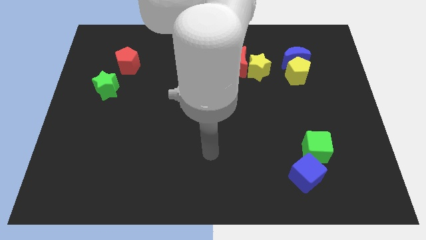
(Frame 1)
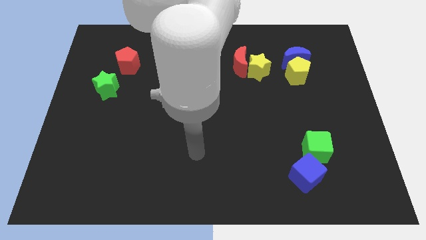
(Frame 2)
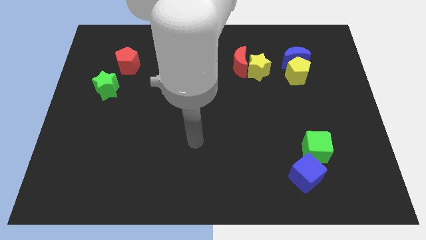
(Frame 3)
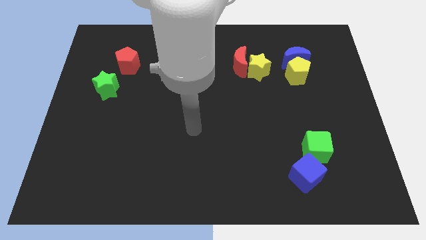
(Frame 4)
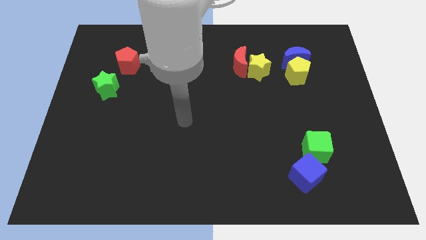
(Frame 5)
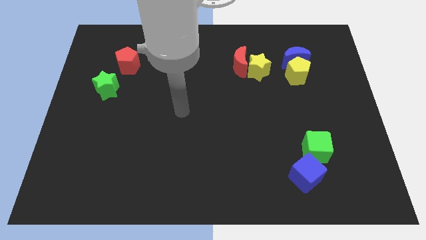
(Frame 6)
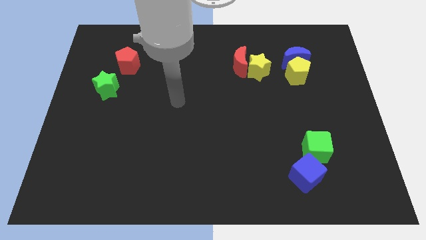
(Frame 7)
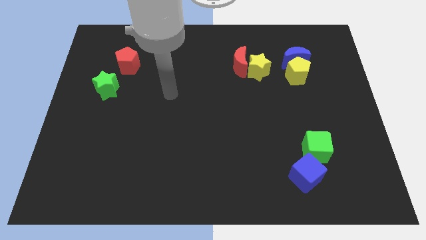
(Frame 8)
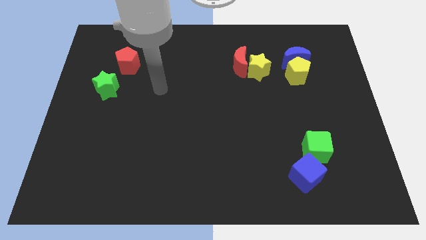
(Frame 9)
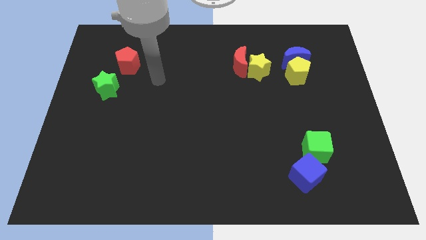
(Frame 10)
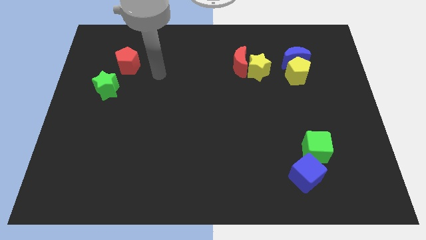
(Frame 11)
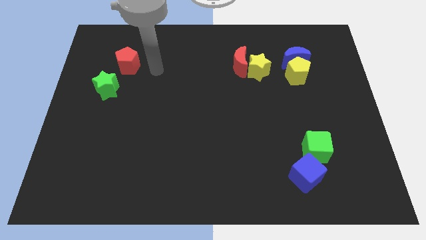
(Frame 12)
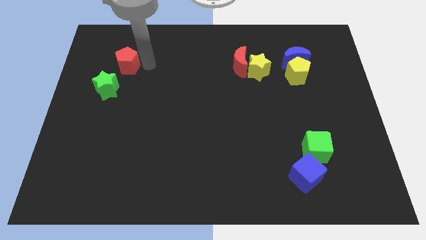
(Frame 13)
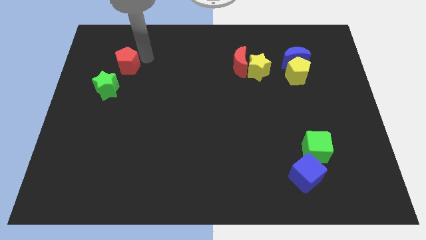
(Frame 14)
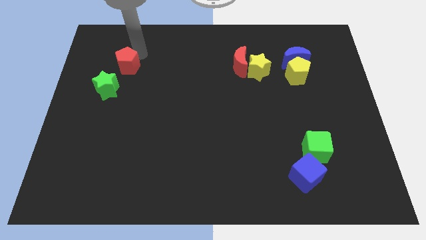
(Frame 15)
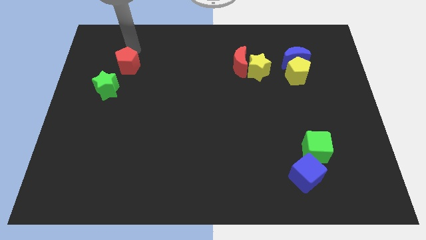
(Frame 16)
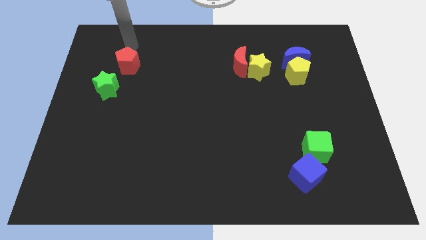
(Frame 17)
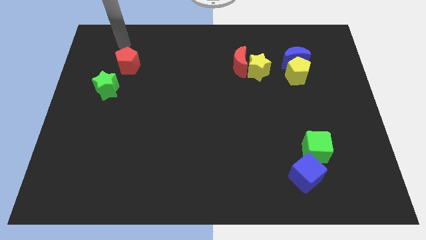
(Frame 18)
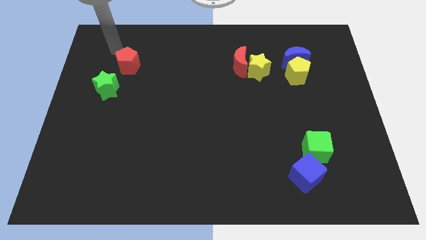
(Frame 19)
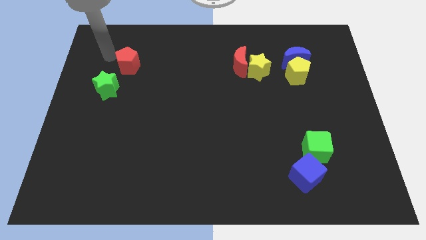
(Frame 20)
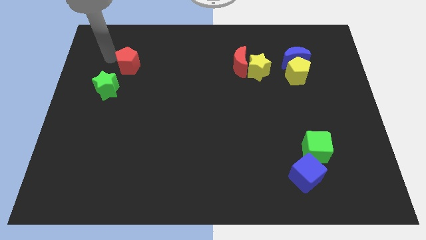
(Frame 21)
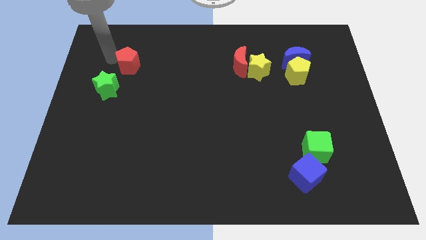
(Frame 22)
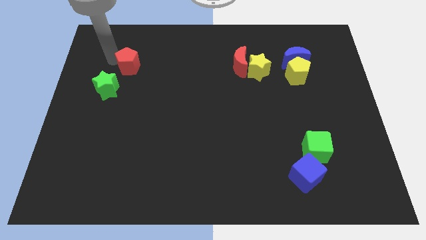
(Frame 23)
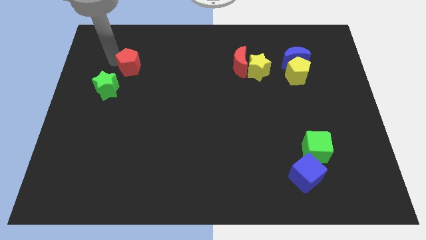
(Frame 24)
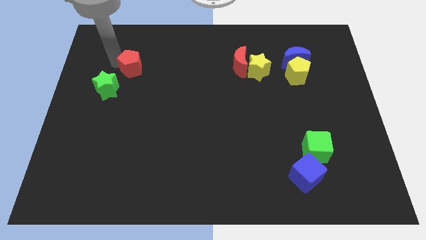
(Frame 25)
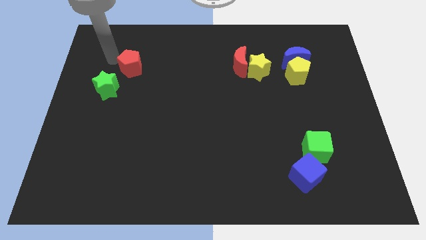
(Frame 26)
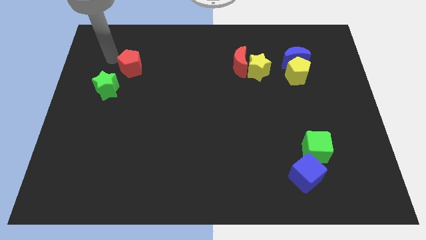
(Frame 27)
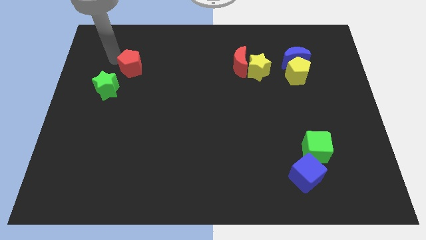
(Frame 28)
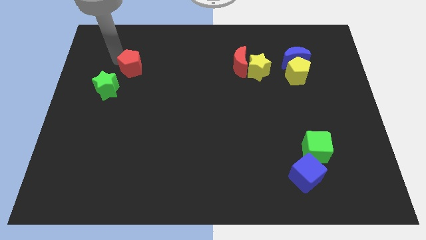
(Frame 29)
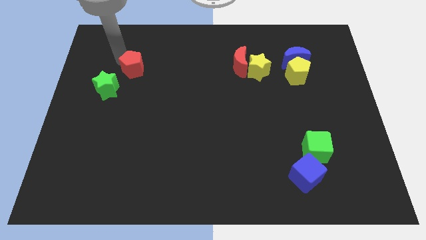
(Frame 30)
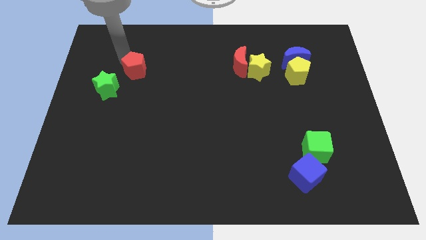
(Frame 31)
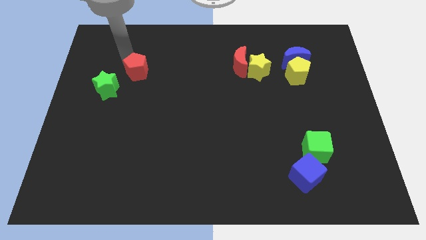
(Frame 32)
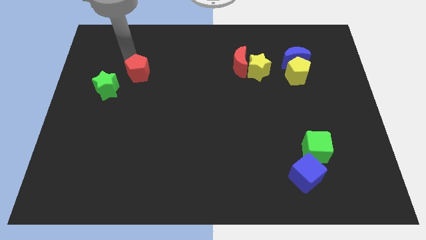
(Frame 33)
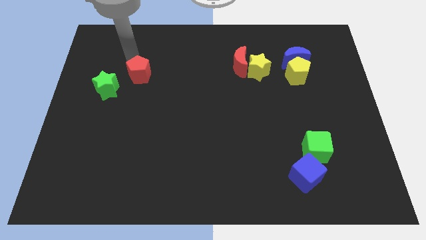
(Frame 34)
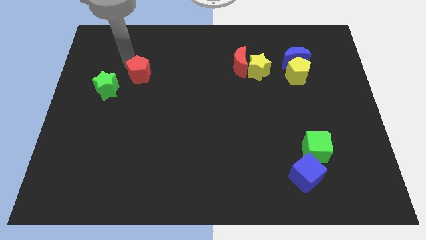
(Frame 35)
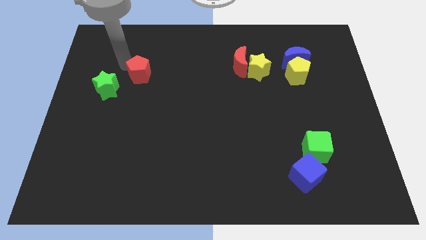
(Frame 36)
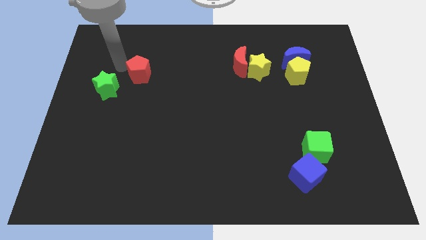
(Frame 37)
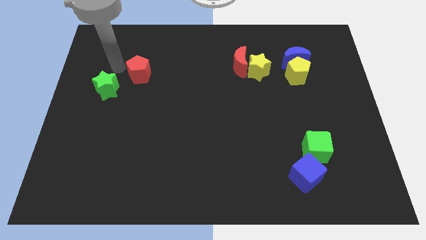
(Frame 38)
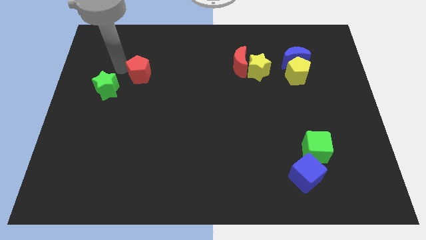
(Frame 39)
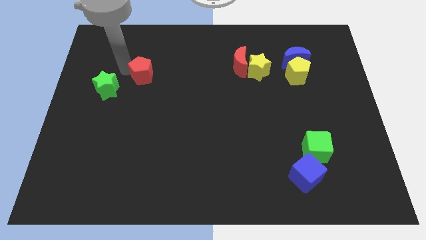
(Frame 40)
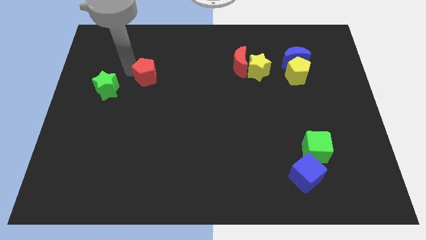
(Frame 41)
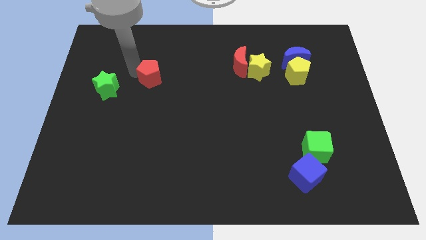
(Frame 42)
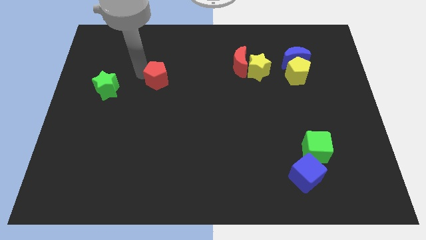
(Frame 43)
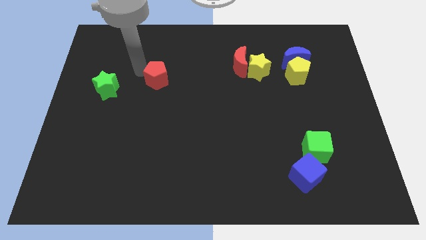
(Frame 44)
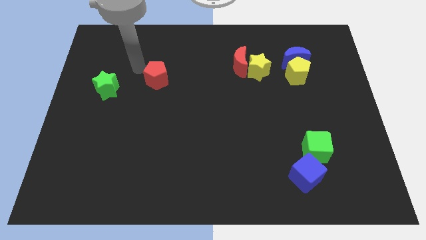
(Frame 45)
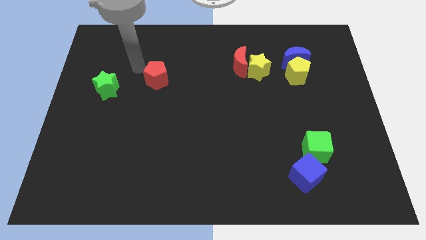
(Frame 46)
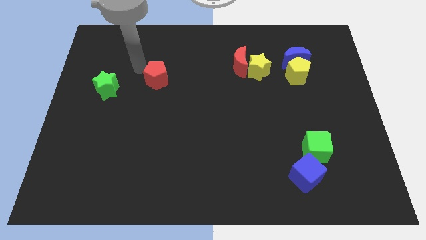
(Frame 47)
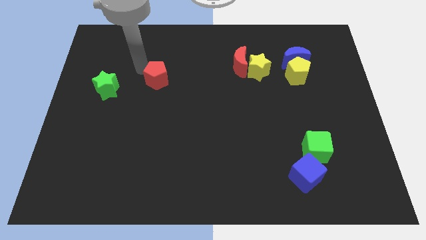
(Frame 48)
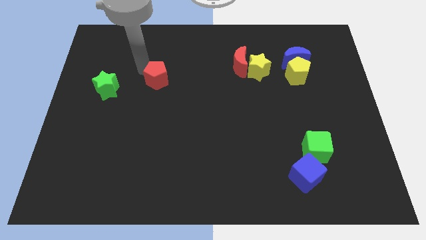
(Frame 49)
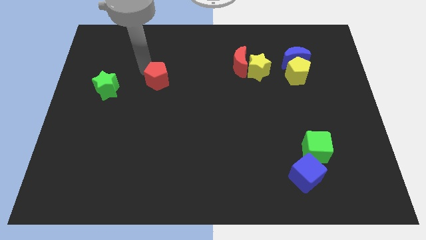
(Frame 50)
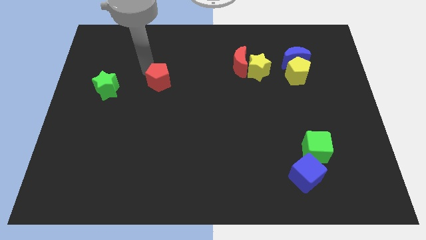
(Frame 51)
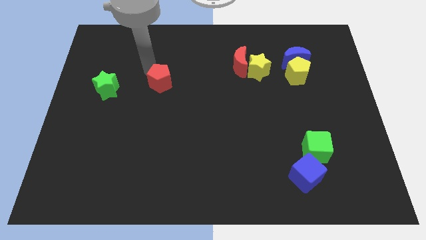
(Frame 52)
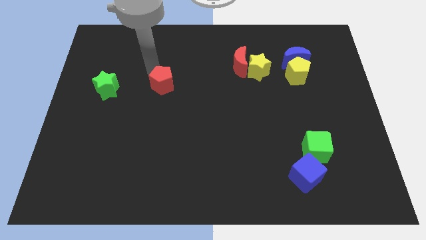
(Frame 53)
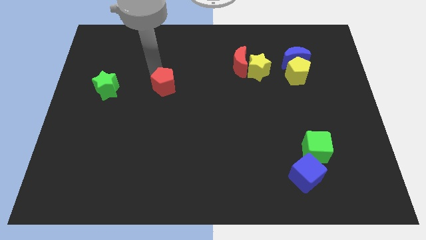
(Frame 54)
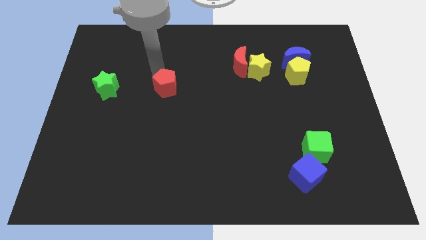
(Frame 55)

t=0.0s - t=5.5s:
push the red pentagon to the middle

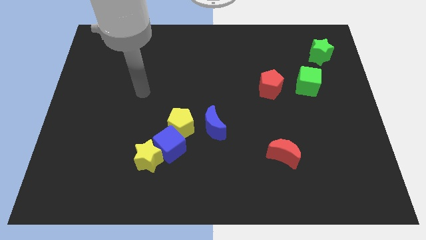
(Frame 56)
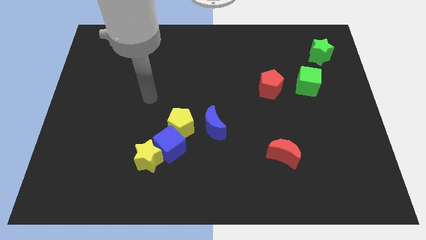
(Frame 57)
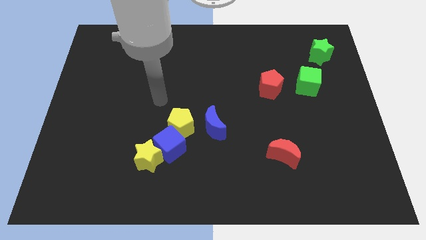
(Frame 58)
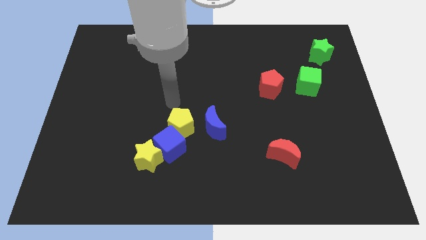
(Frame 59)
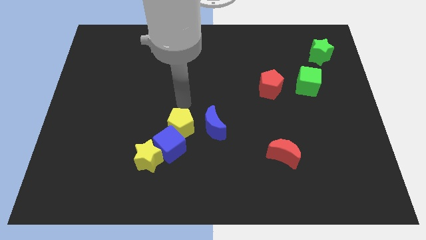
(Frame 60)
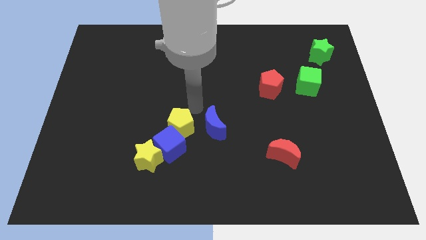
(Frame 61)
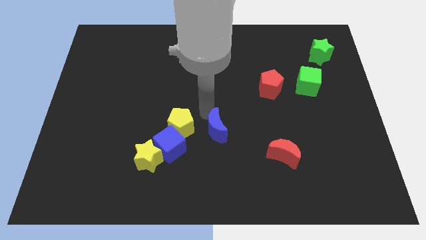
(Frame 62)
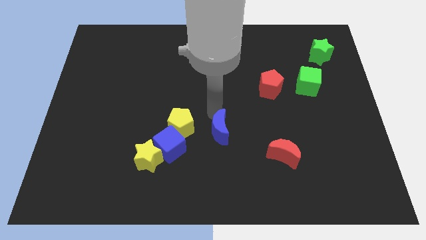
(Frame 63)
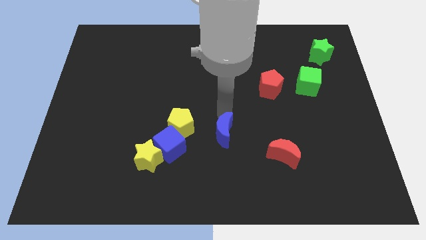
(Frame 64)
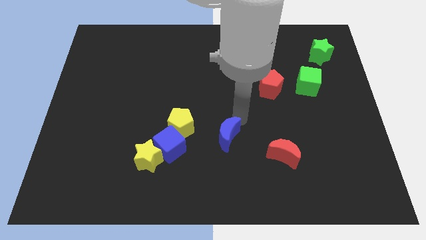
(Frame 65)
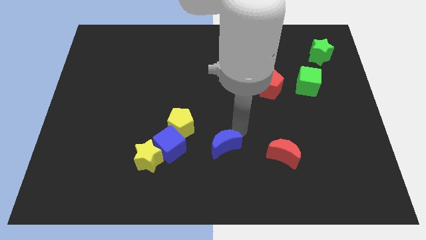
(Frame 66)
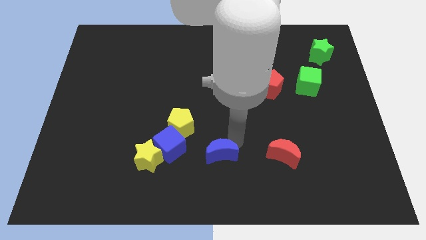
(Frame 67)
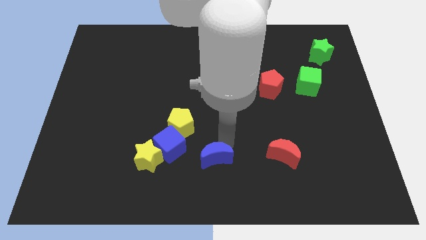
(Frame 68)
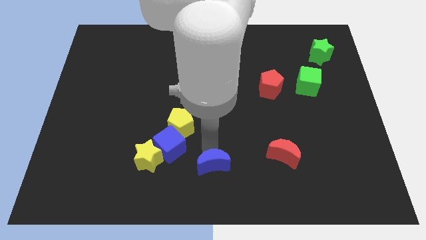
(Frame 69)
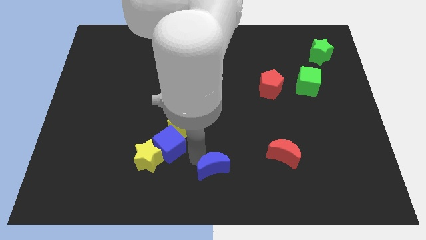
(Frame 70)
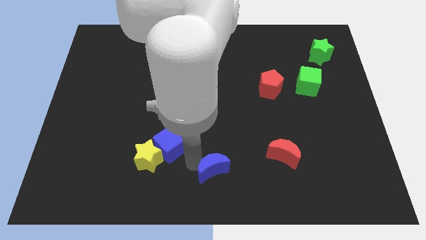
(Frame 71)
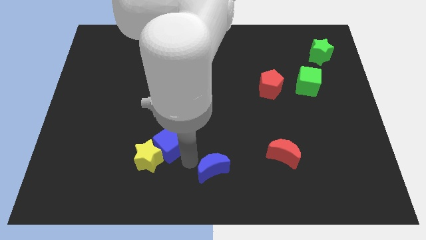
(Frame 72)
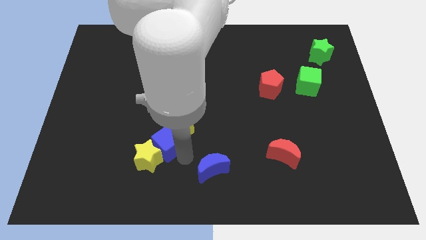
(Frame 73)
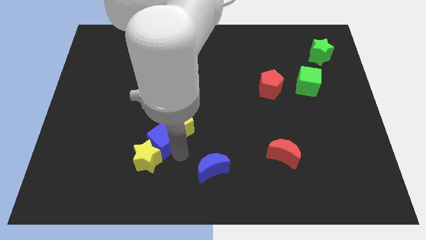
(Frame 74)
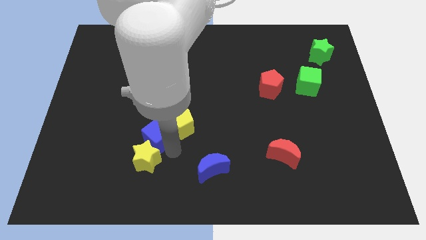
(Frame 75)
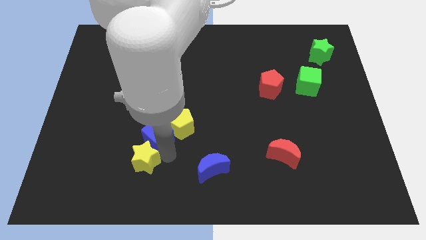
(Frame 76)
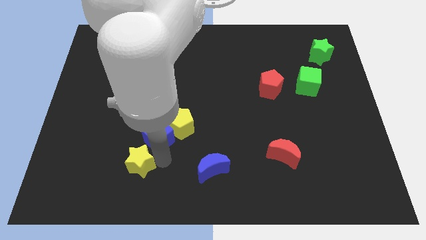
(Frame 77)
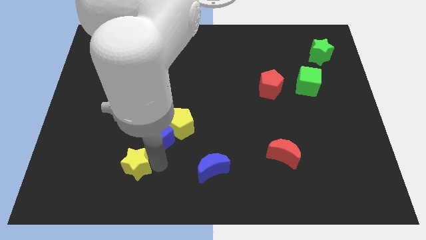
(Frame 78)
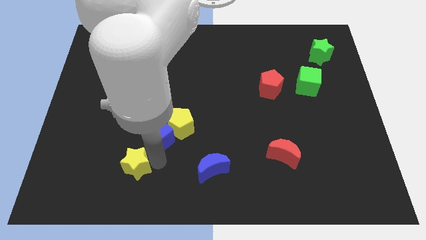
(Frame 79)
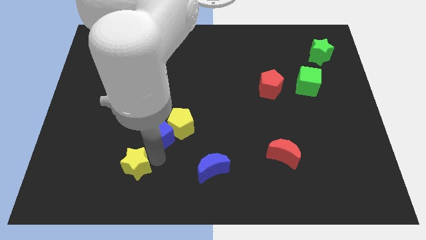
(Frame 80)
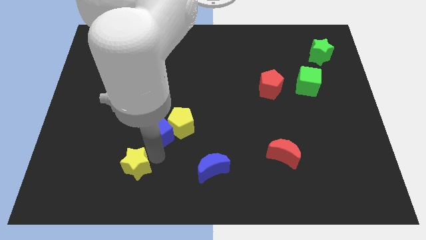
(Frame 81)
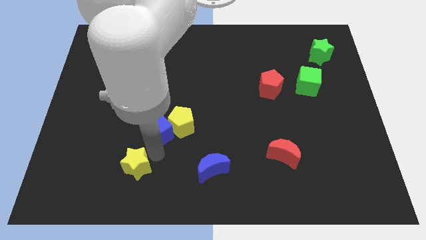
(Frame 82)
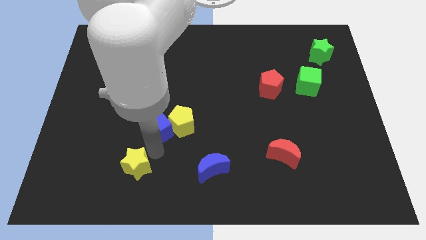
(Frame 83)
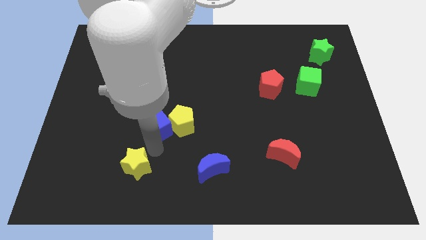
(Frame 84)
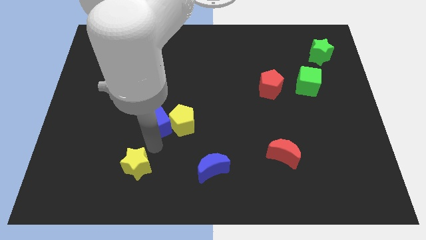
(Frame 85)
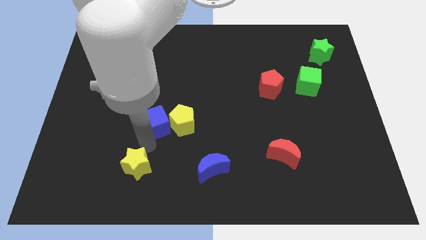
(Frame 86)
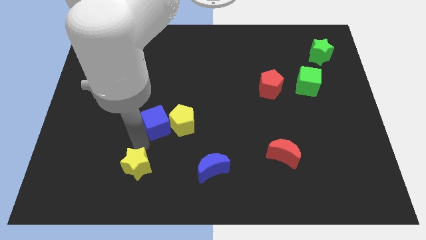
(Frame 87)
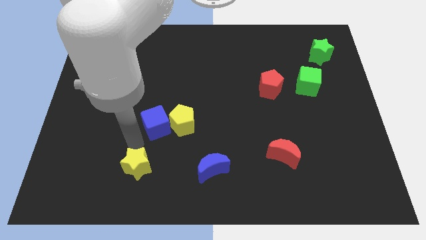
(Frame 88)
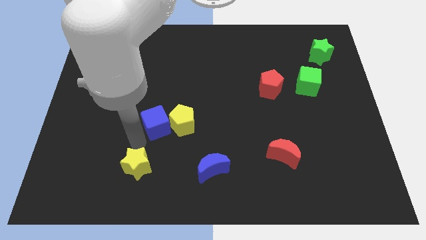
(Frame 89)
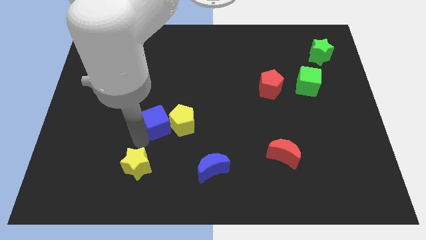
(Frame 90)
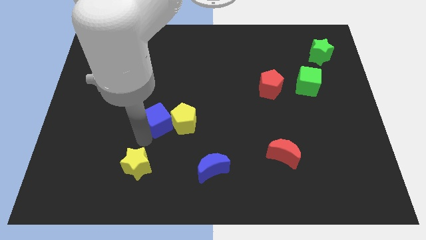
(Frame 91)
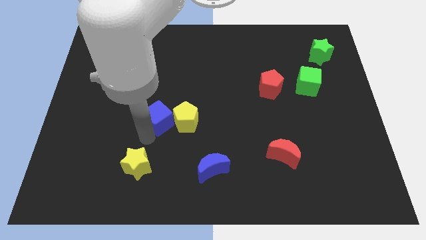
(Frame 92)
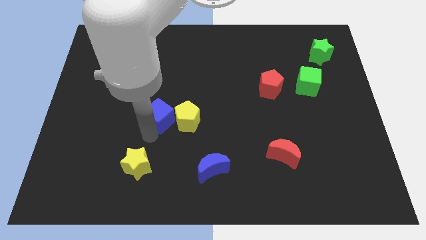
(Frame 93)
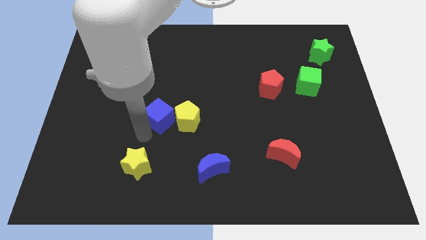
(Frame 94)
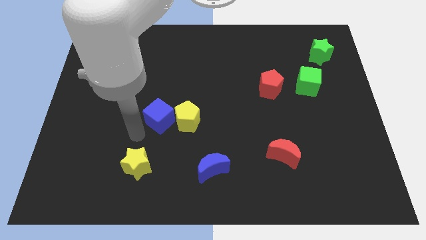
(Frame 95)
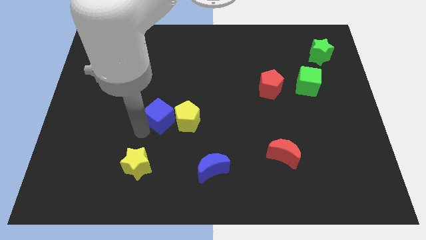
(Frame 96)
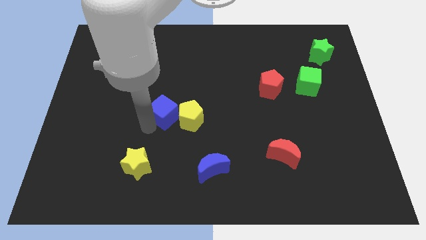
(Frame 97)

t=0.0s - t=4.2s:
slide the blue cube to the middle of the board
